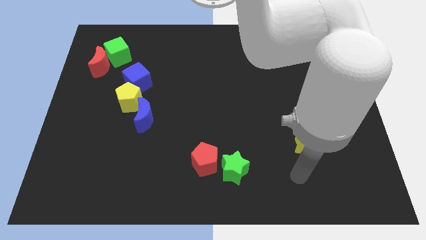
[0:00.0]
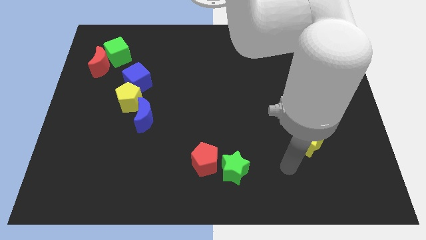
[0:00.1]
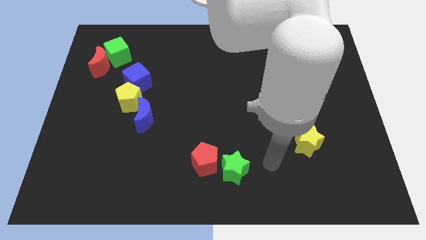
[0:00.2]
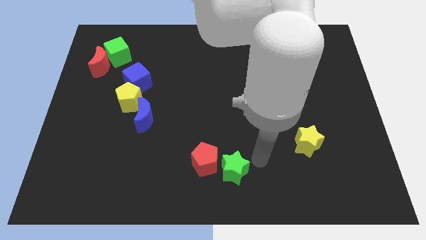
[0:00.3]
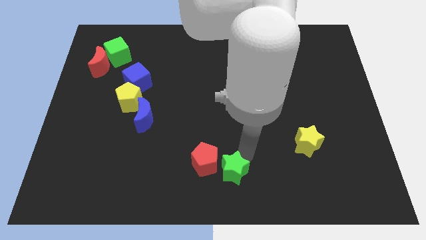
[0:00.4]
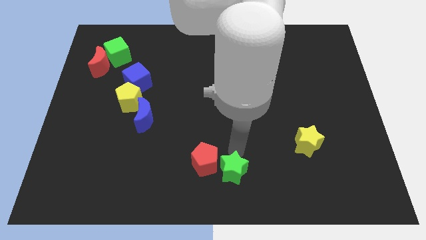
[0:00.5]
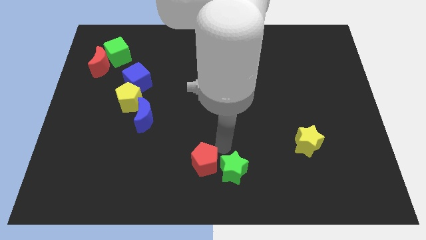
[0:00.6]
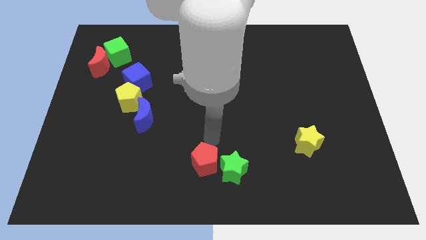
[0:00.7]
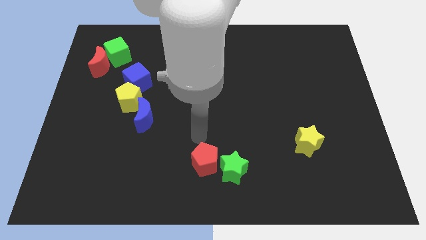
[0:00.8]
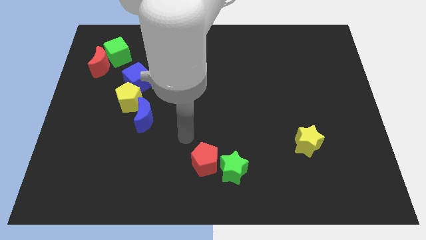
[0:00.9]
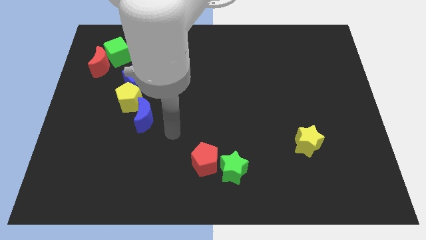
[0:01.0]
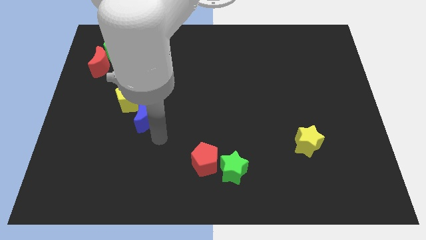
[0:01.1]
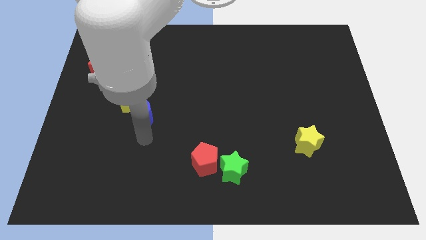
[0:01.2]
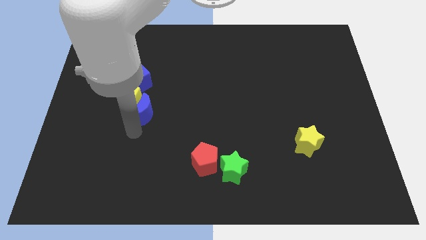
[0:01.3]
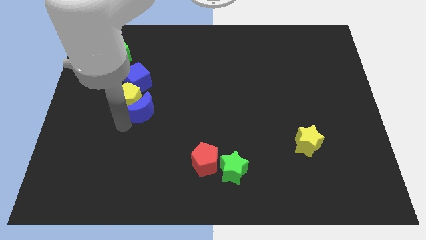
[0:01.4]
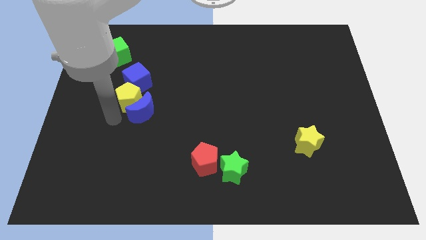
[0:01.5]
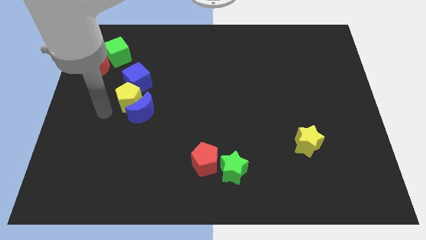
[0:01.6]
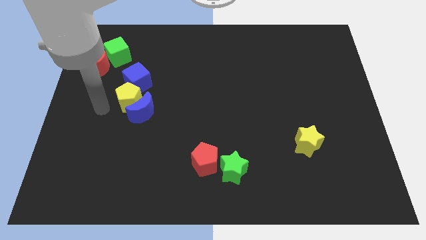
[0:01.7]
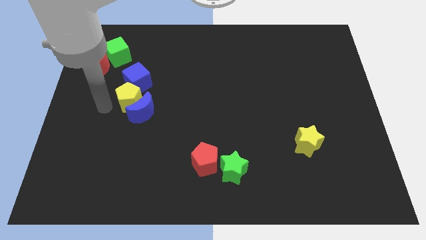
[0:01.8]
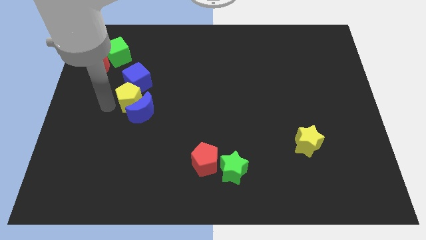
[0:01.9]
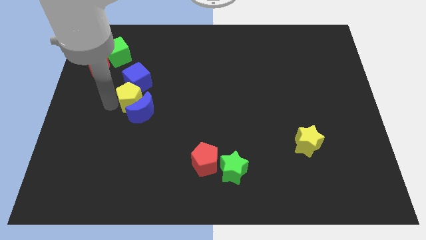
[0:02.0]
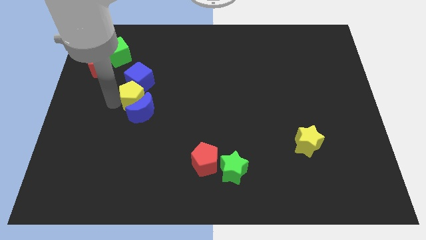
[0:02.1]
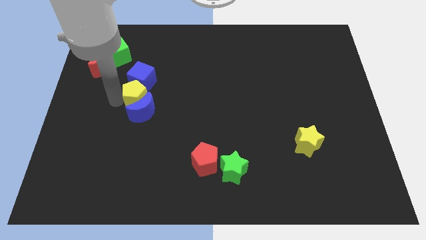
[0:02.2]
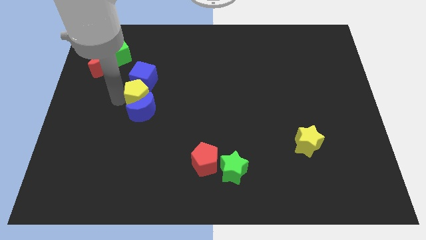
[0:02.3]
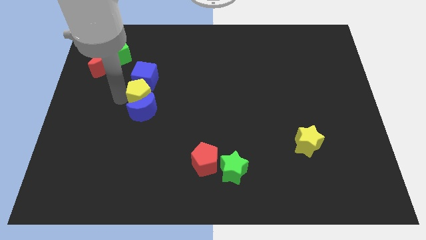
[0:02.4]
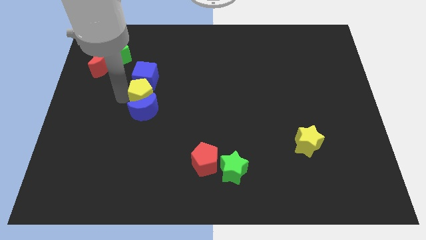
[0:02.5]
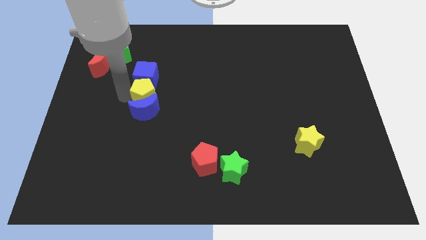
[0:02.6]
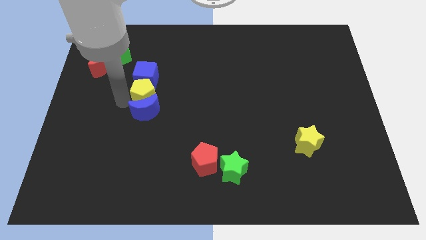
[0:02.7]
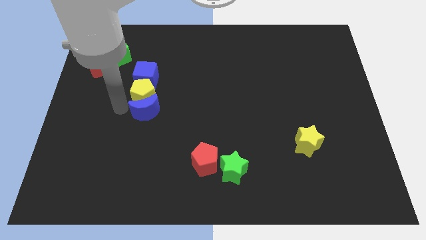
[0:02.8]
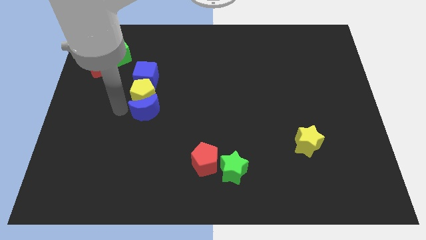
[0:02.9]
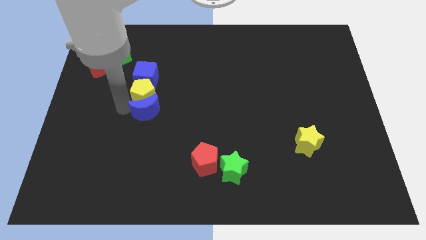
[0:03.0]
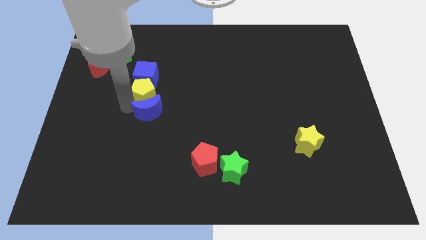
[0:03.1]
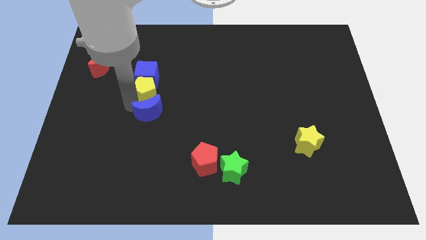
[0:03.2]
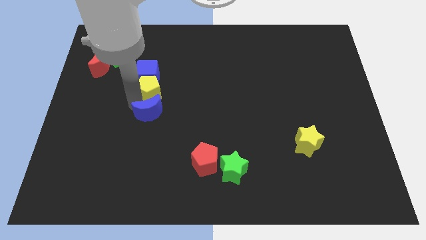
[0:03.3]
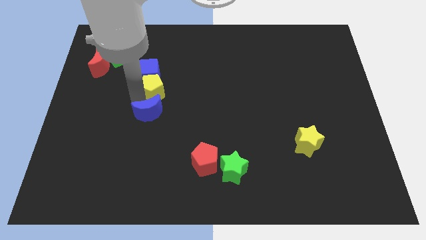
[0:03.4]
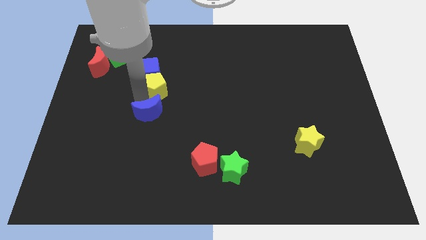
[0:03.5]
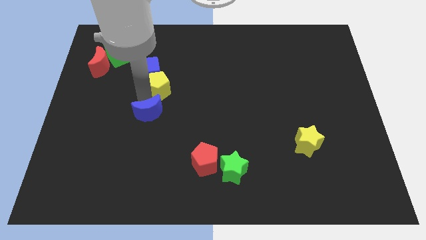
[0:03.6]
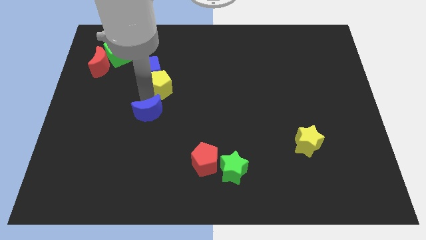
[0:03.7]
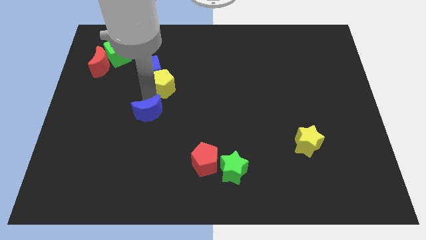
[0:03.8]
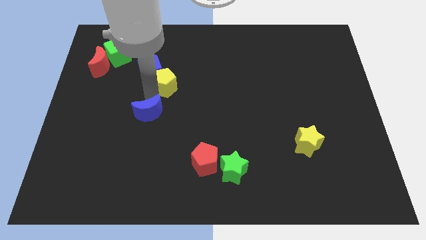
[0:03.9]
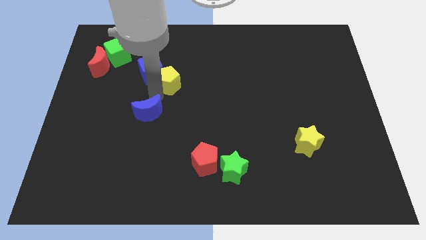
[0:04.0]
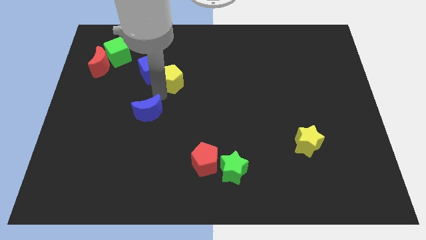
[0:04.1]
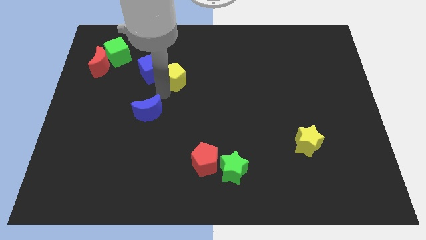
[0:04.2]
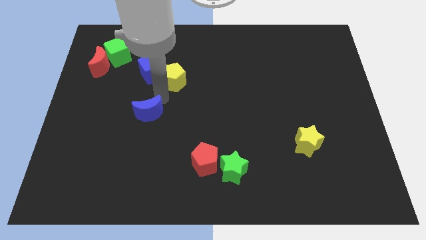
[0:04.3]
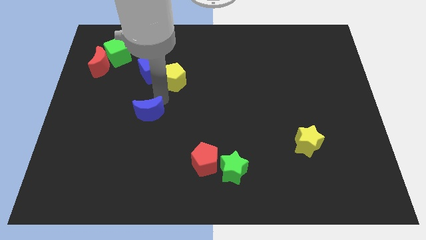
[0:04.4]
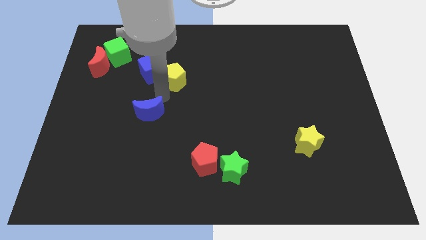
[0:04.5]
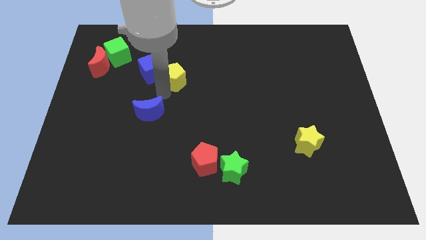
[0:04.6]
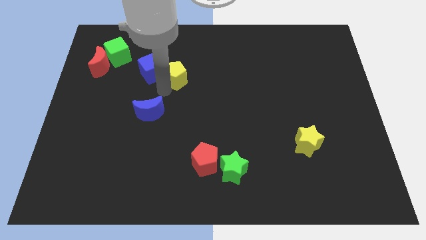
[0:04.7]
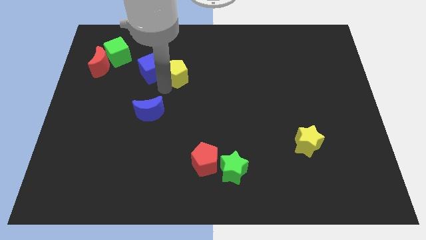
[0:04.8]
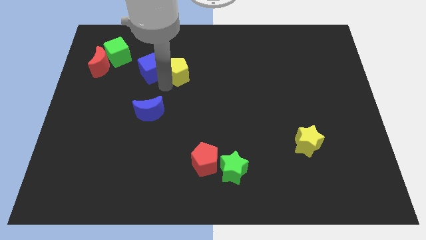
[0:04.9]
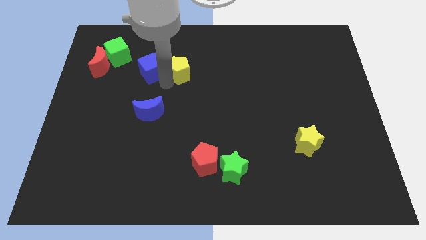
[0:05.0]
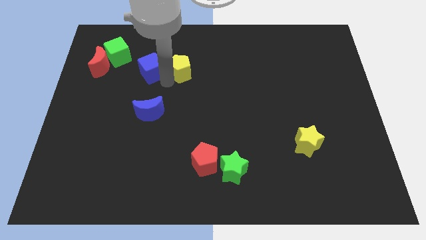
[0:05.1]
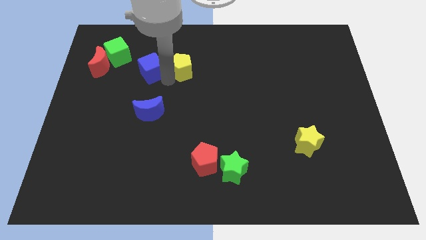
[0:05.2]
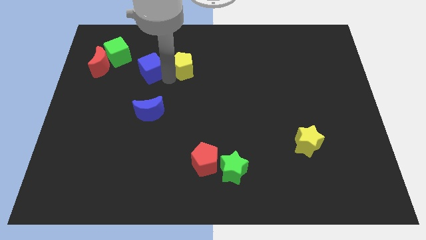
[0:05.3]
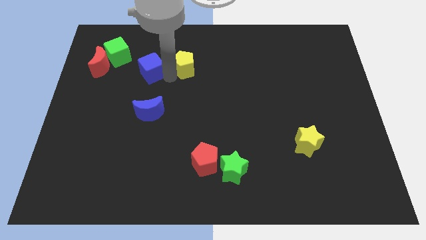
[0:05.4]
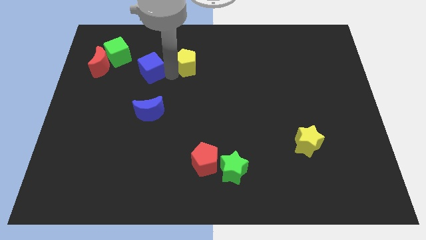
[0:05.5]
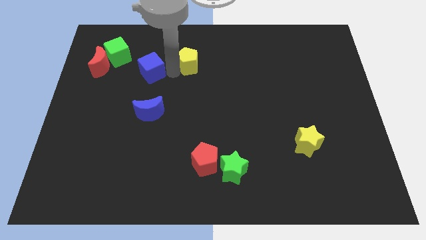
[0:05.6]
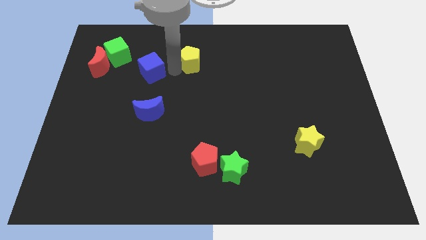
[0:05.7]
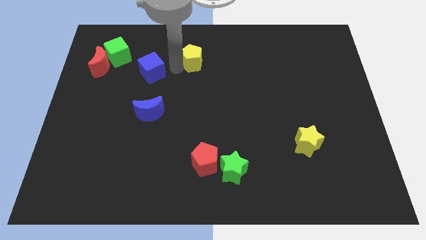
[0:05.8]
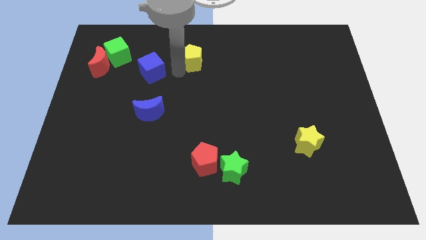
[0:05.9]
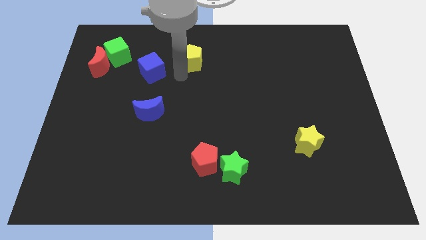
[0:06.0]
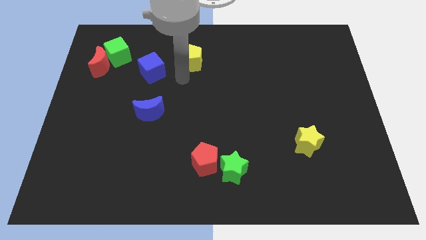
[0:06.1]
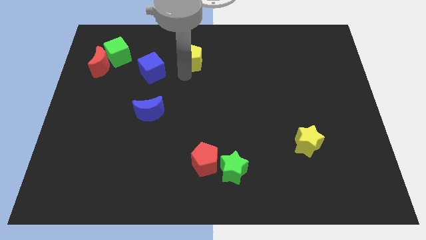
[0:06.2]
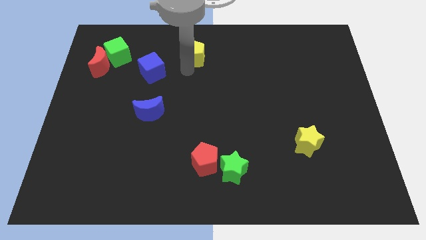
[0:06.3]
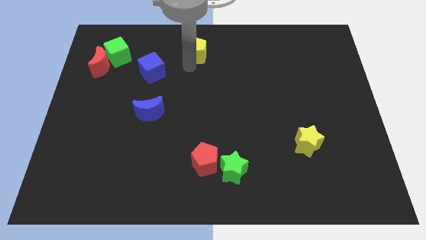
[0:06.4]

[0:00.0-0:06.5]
push the yellow pentagon to the top
